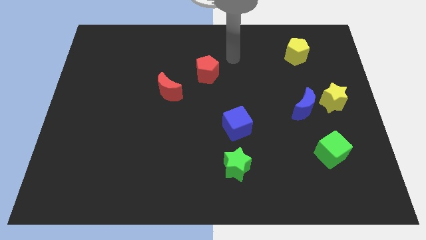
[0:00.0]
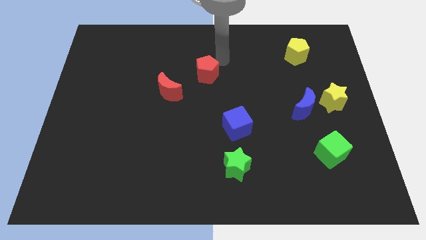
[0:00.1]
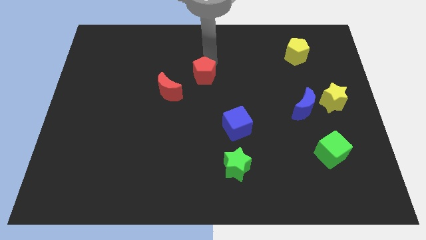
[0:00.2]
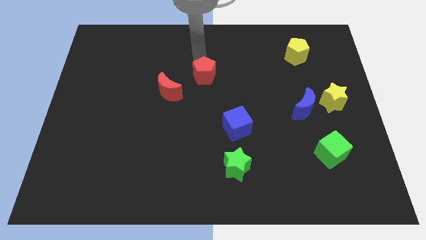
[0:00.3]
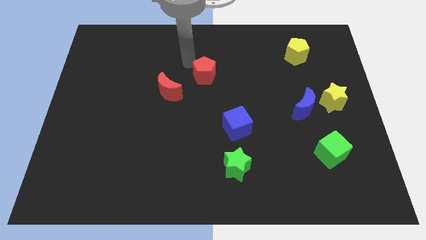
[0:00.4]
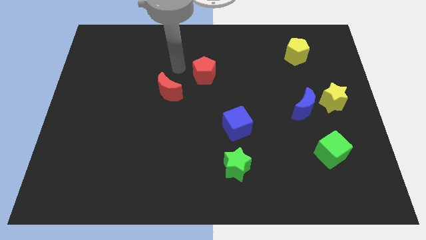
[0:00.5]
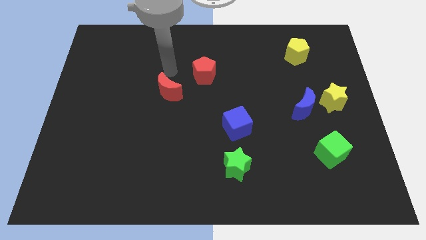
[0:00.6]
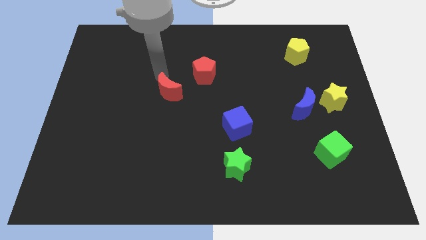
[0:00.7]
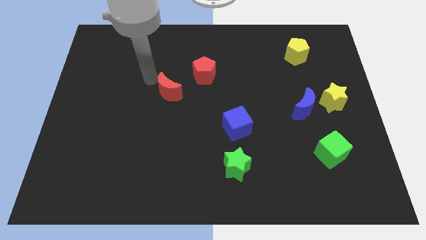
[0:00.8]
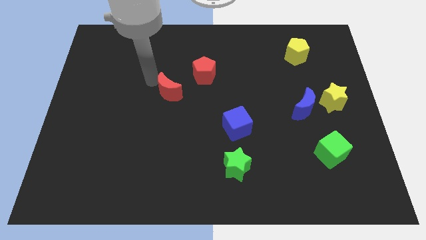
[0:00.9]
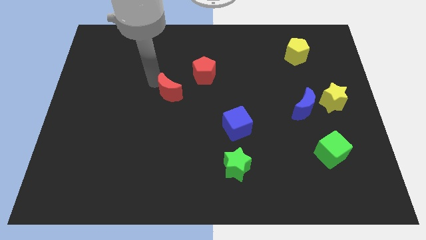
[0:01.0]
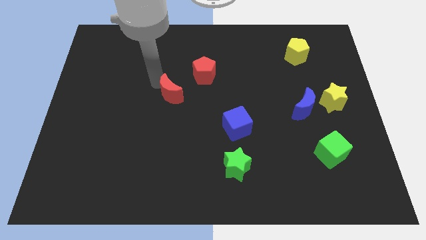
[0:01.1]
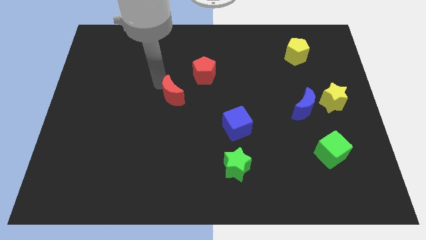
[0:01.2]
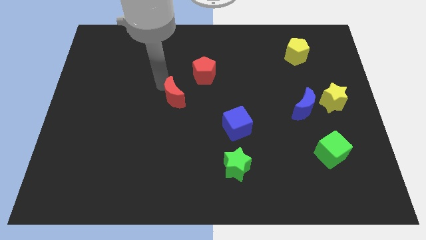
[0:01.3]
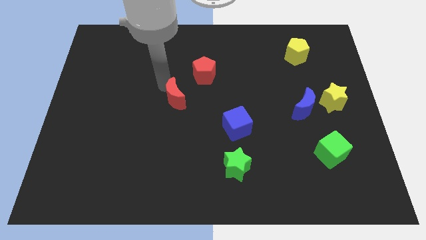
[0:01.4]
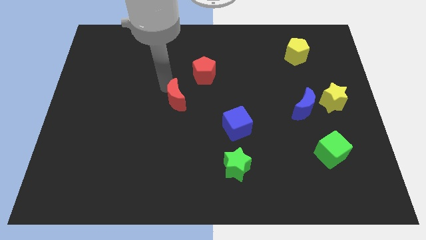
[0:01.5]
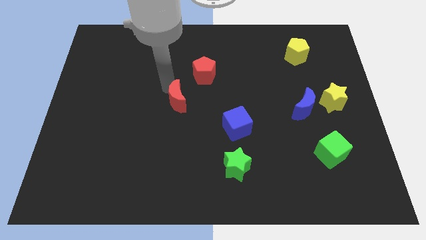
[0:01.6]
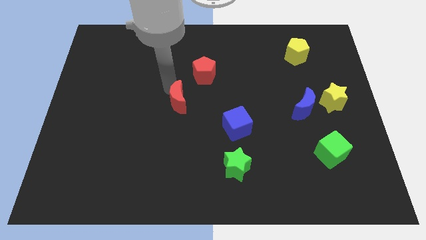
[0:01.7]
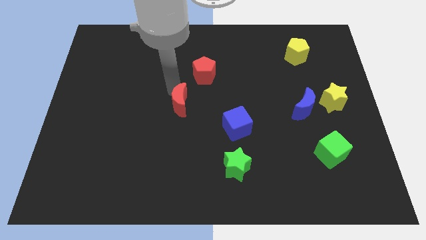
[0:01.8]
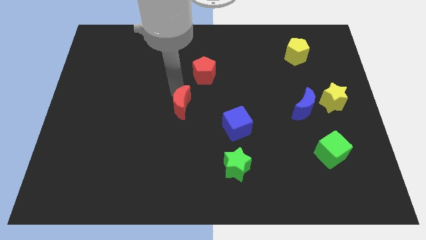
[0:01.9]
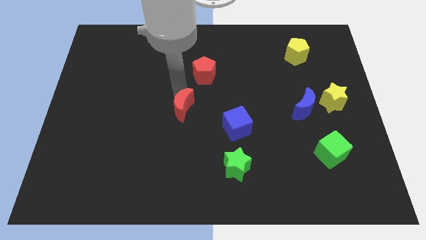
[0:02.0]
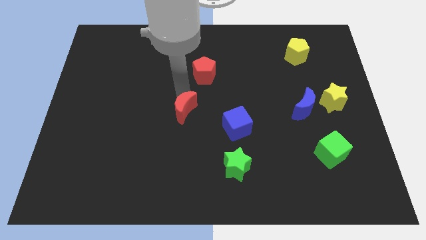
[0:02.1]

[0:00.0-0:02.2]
push the red moon down and right diagonally a bit

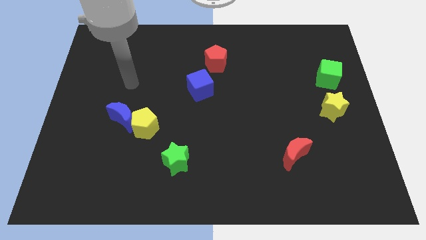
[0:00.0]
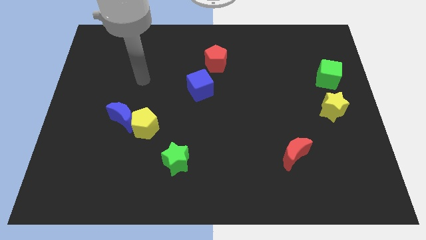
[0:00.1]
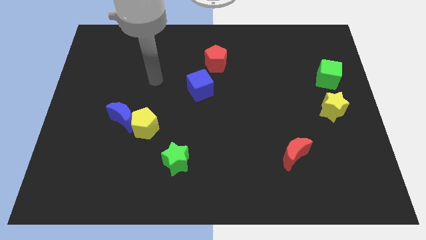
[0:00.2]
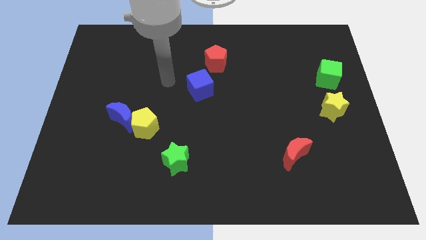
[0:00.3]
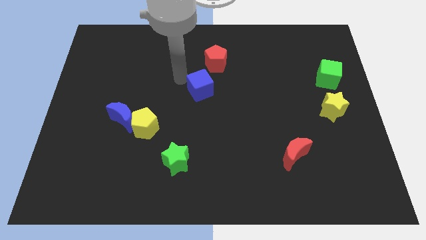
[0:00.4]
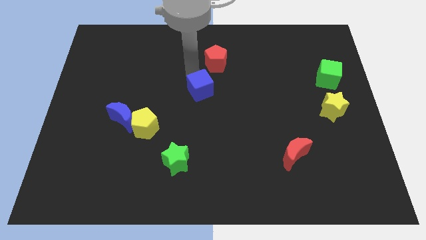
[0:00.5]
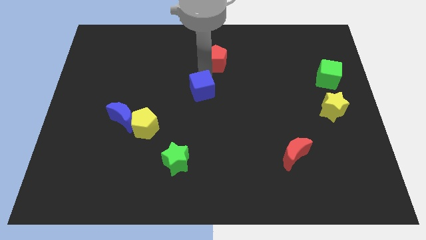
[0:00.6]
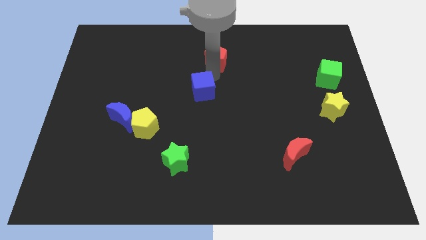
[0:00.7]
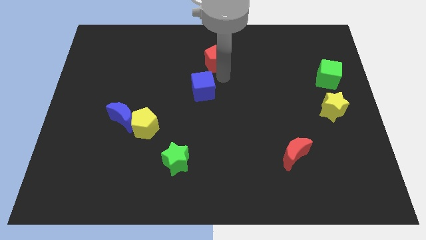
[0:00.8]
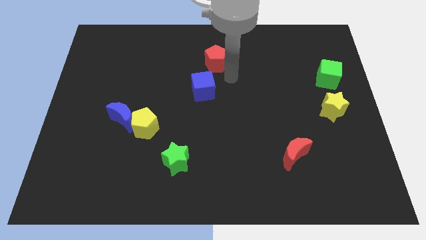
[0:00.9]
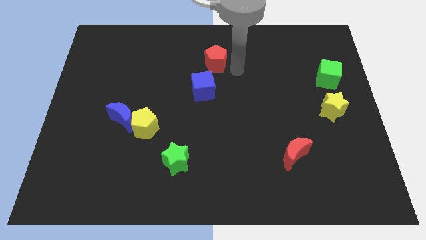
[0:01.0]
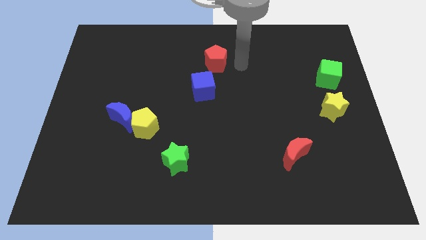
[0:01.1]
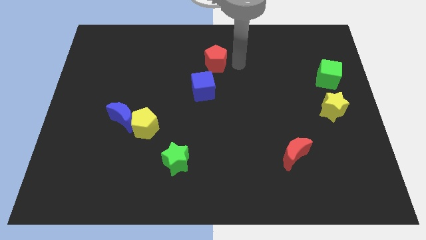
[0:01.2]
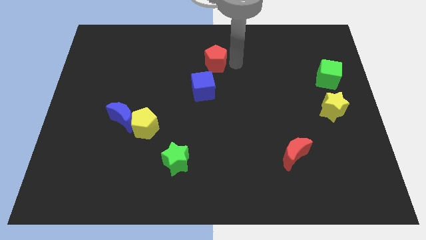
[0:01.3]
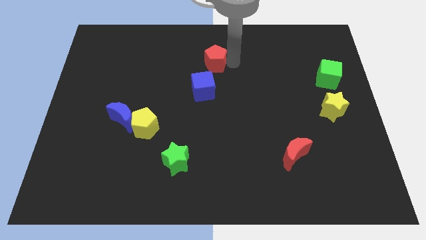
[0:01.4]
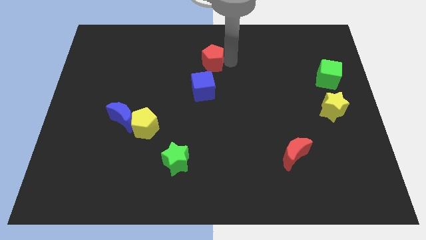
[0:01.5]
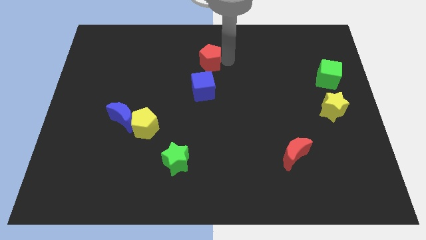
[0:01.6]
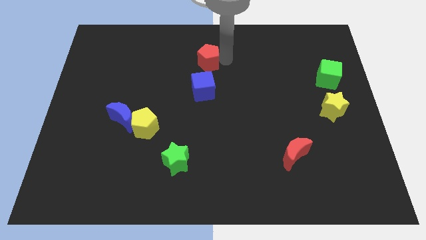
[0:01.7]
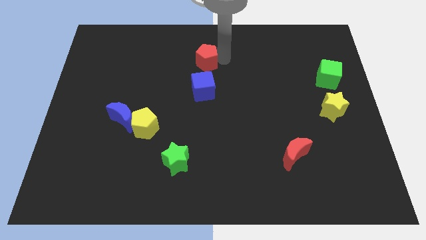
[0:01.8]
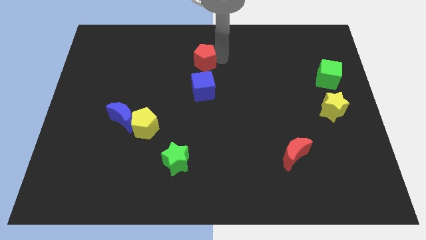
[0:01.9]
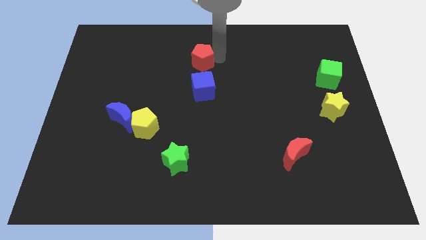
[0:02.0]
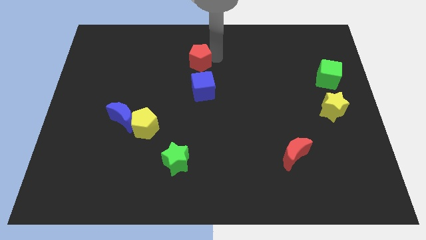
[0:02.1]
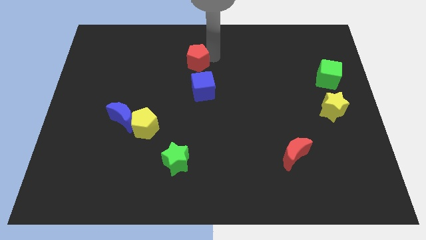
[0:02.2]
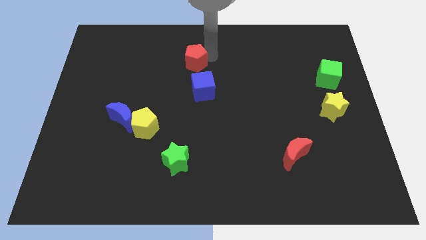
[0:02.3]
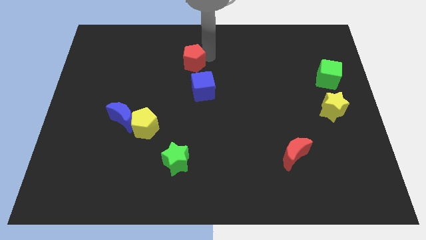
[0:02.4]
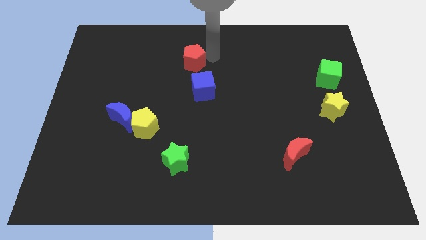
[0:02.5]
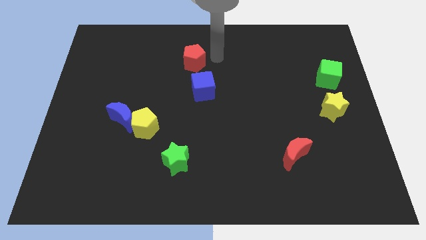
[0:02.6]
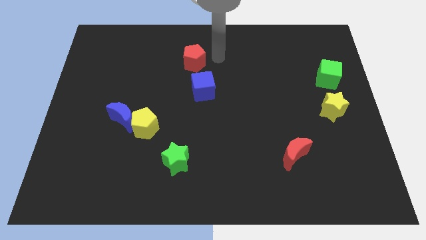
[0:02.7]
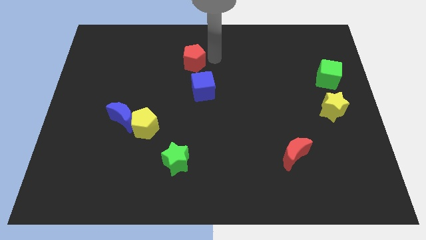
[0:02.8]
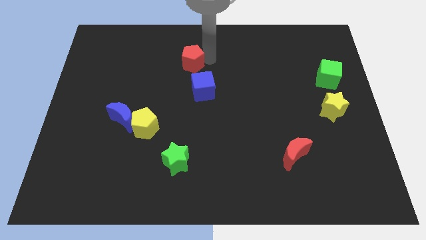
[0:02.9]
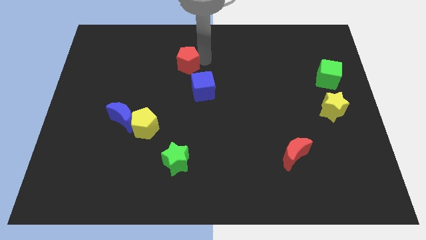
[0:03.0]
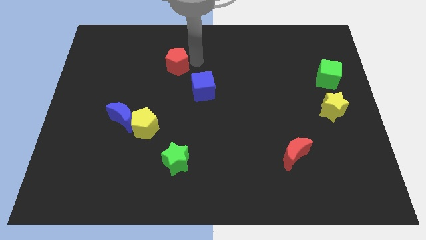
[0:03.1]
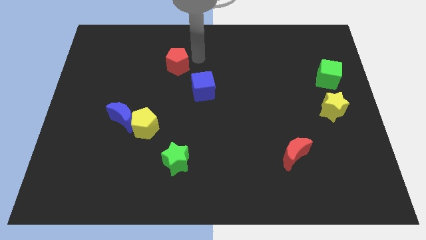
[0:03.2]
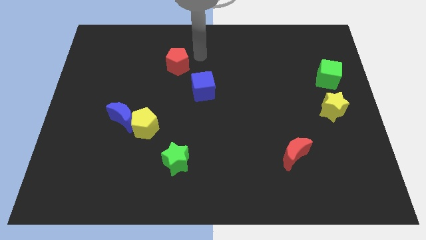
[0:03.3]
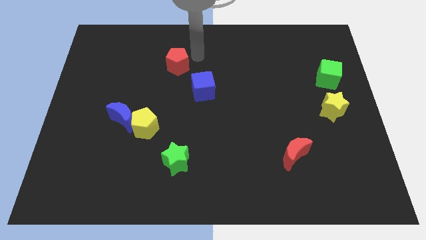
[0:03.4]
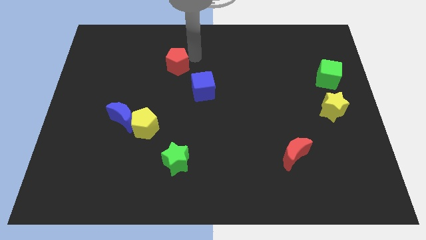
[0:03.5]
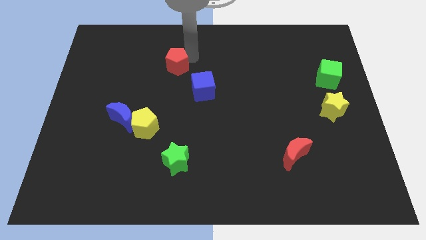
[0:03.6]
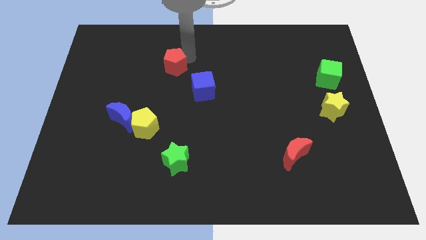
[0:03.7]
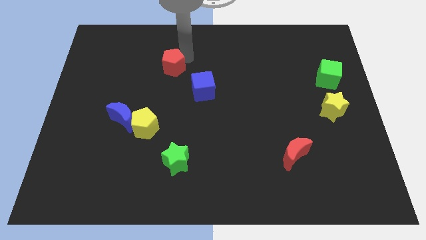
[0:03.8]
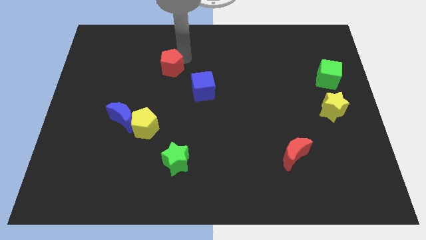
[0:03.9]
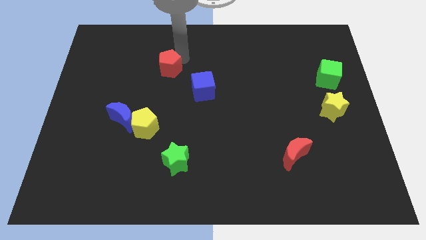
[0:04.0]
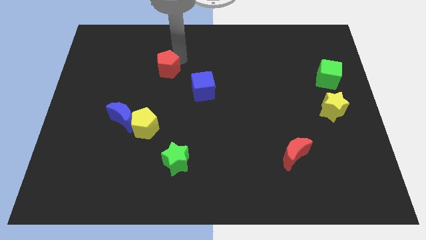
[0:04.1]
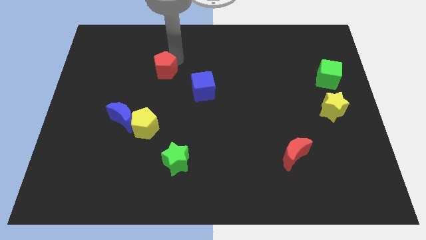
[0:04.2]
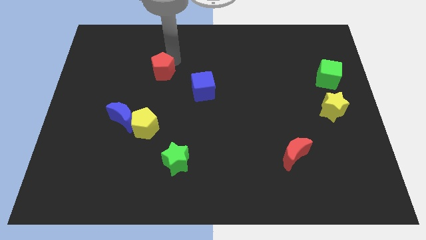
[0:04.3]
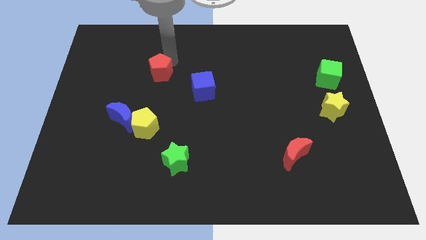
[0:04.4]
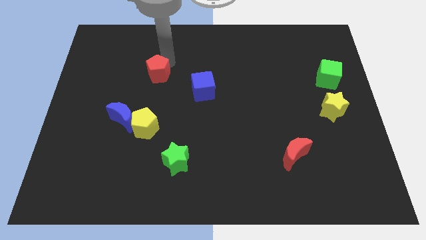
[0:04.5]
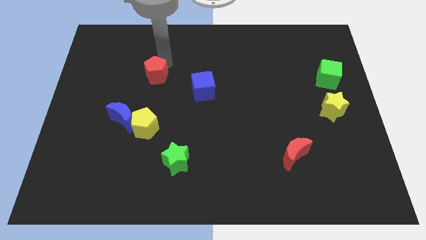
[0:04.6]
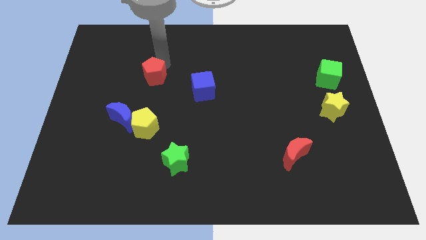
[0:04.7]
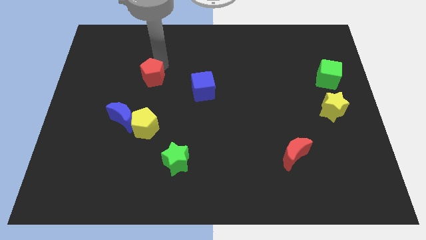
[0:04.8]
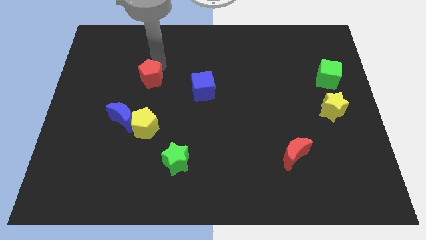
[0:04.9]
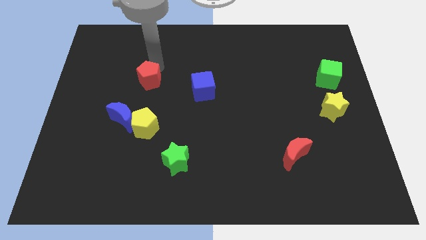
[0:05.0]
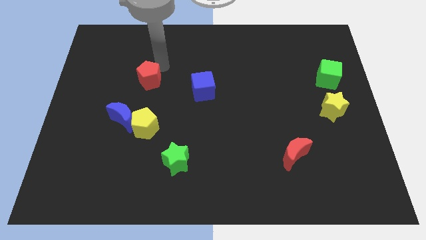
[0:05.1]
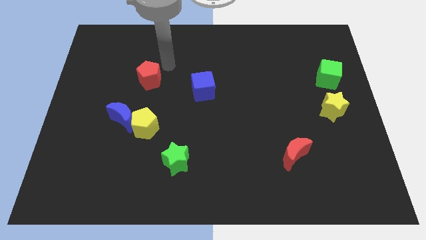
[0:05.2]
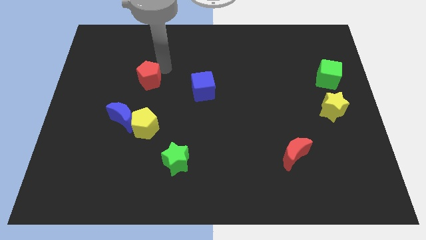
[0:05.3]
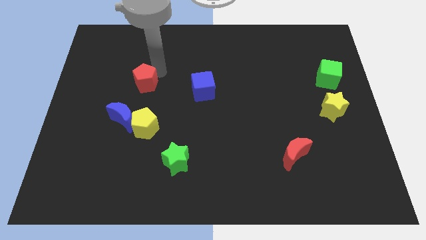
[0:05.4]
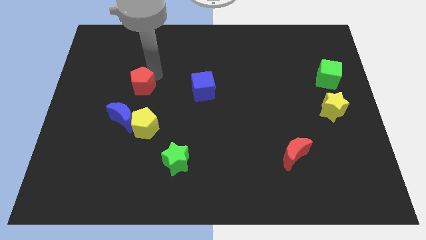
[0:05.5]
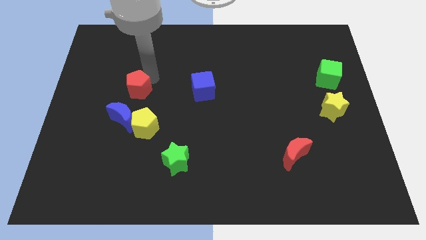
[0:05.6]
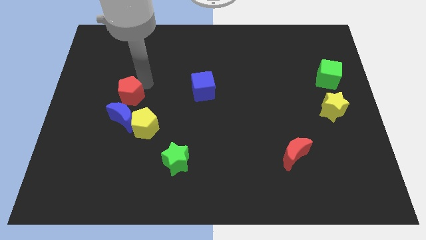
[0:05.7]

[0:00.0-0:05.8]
push the red pentagon diagonally downwards and to the left

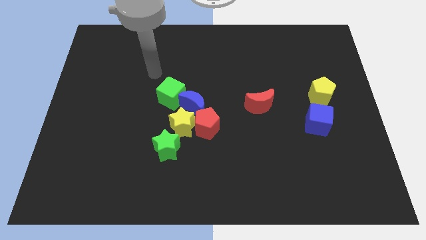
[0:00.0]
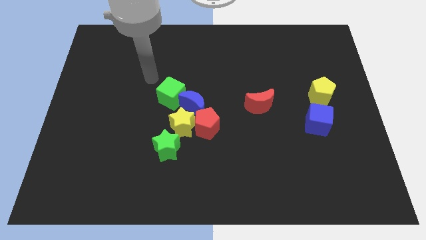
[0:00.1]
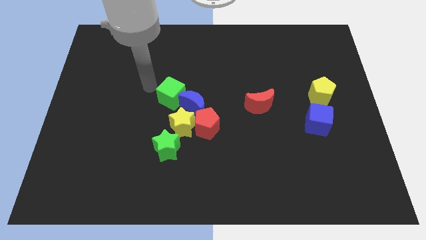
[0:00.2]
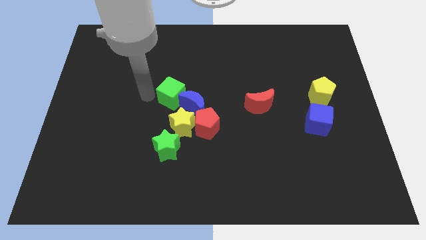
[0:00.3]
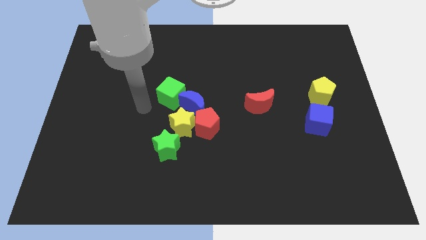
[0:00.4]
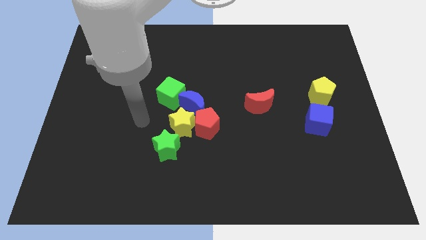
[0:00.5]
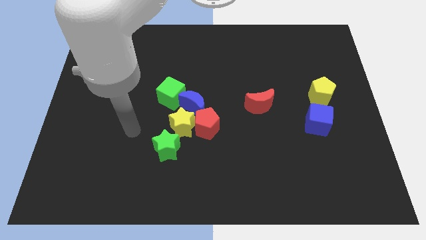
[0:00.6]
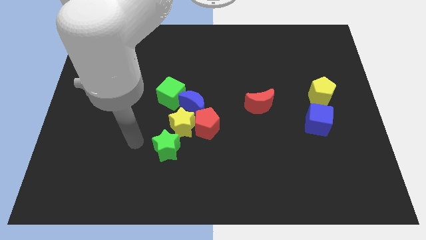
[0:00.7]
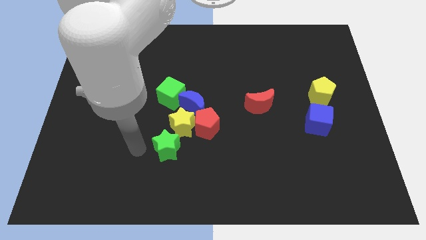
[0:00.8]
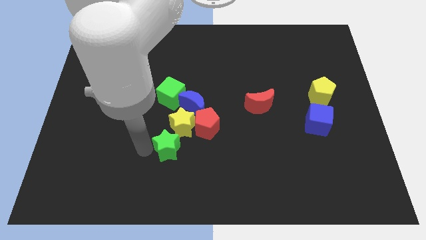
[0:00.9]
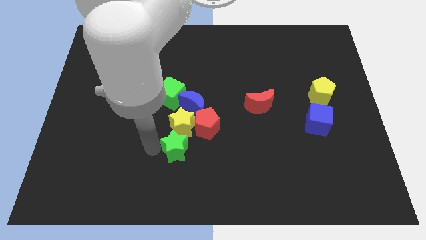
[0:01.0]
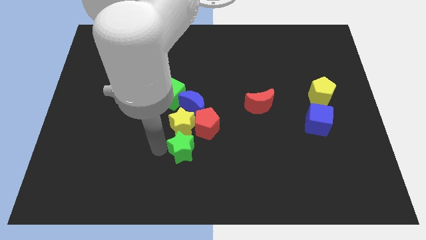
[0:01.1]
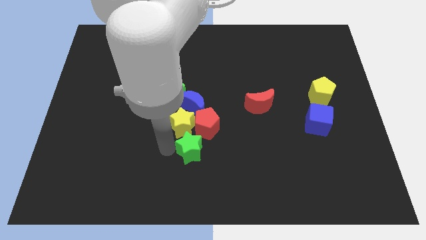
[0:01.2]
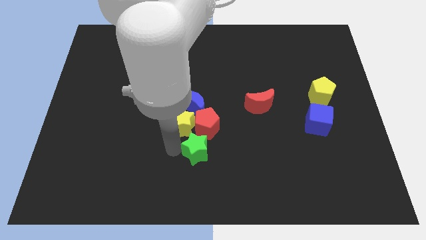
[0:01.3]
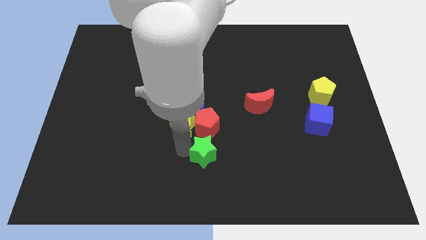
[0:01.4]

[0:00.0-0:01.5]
slide the green star to the right a little
